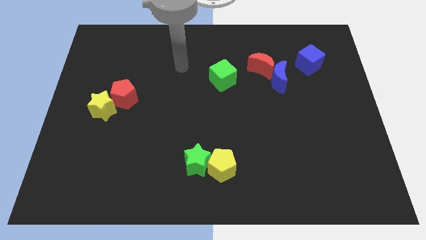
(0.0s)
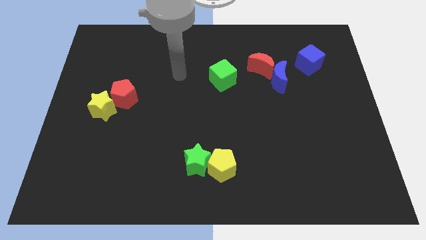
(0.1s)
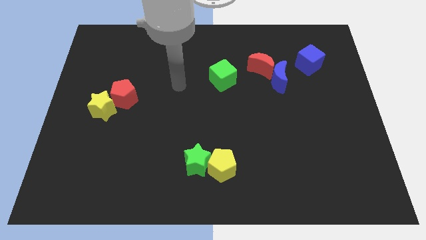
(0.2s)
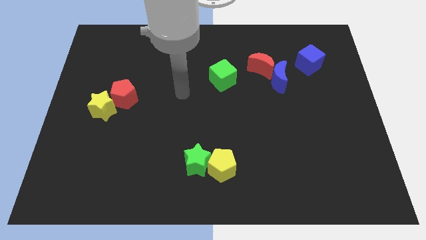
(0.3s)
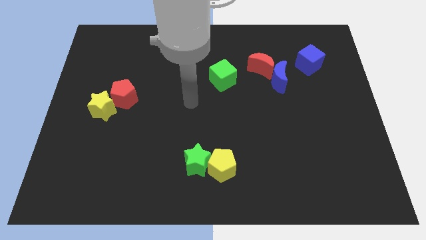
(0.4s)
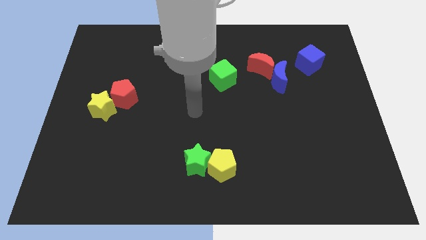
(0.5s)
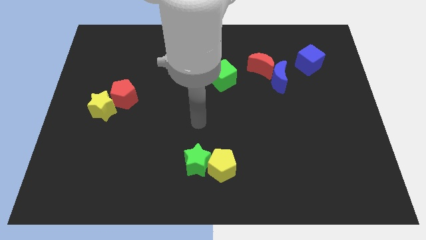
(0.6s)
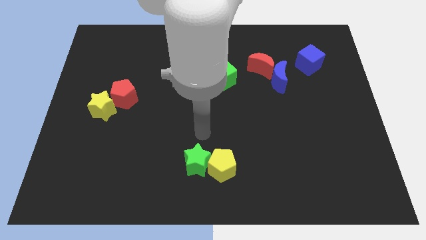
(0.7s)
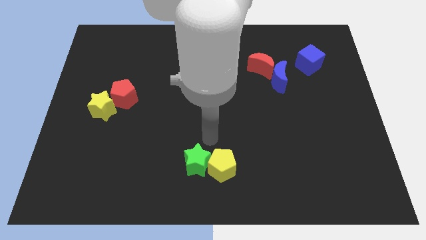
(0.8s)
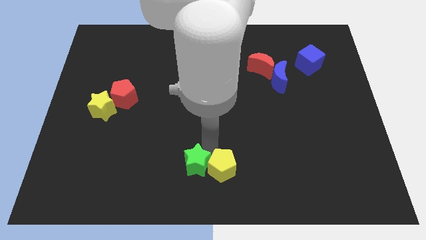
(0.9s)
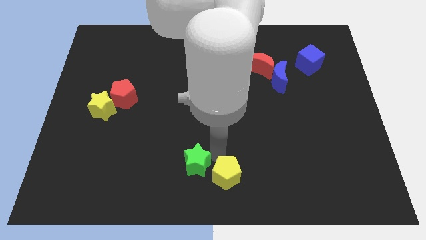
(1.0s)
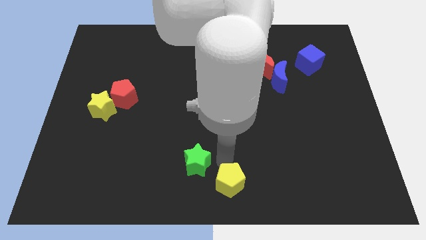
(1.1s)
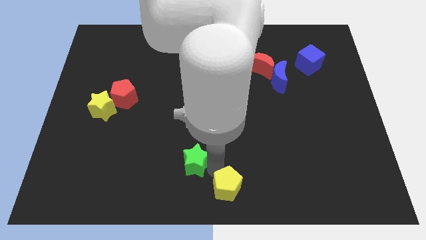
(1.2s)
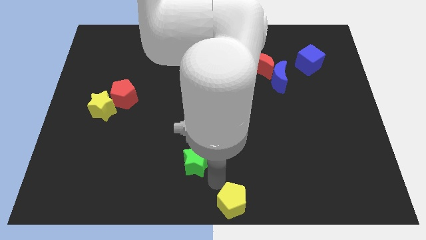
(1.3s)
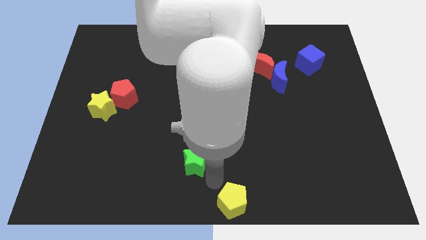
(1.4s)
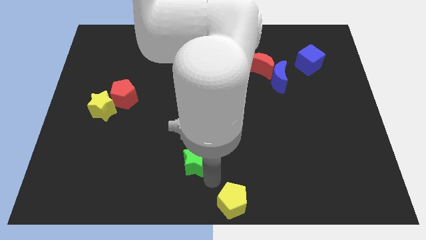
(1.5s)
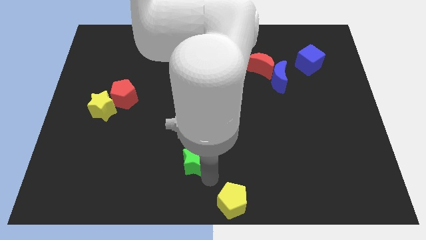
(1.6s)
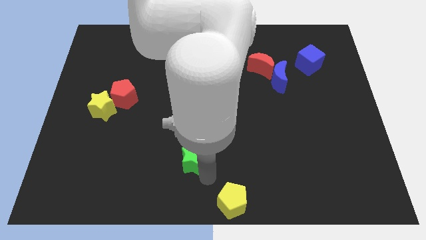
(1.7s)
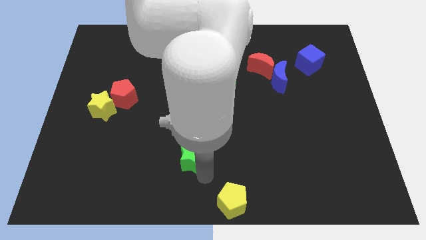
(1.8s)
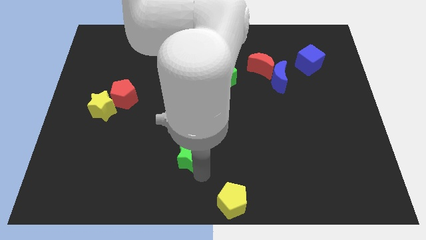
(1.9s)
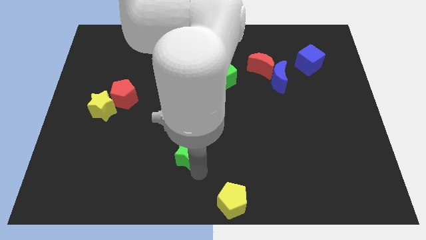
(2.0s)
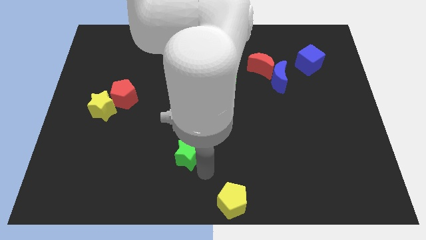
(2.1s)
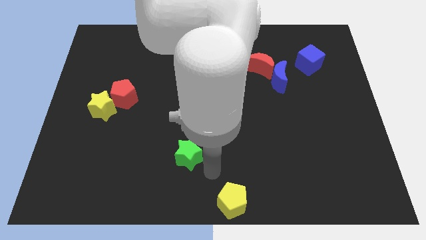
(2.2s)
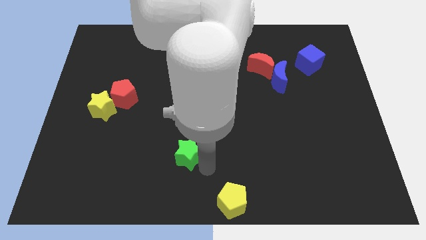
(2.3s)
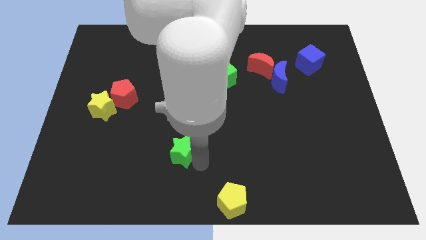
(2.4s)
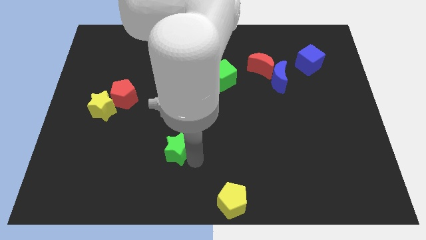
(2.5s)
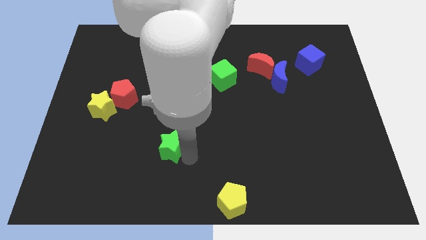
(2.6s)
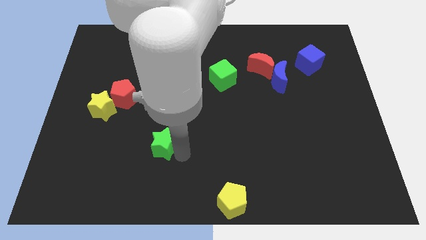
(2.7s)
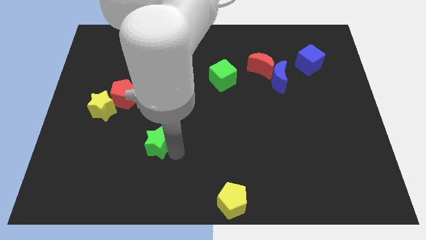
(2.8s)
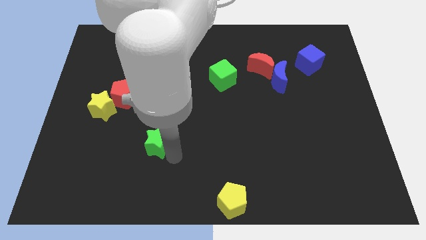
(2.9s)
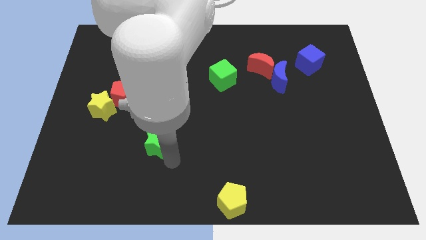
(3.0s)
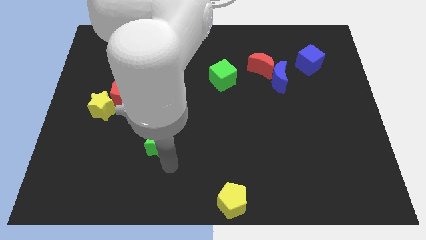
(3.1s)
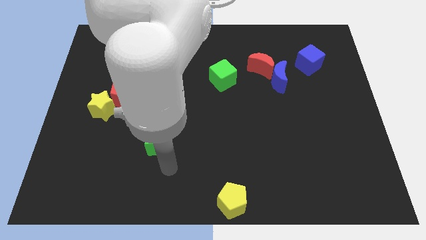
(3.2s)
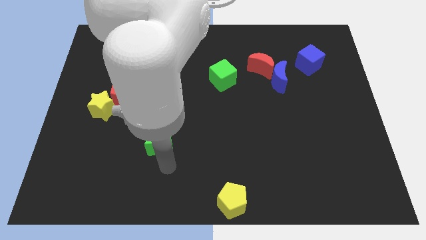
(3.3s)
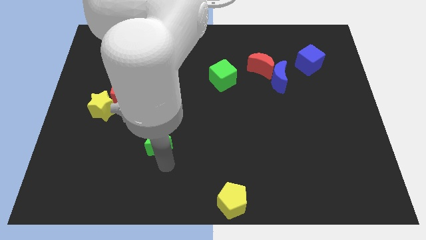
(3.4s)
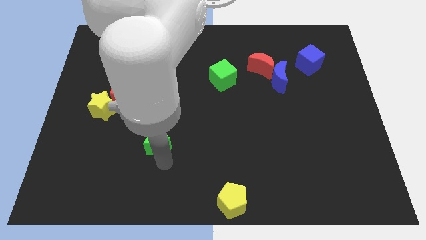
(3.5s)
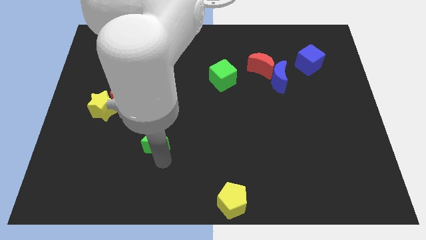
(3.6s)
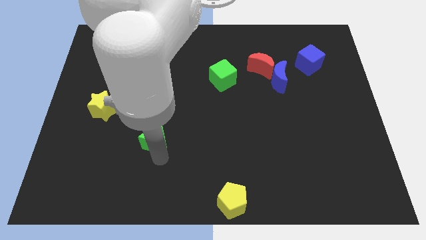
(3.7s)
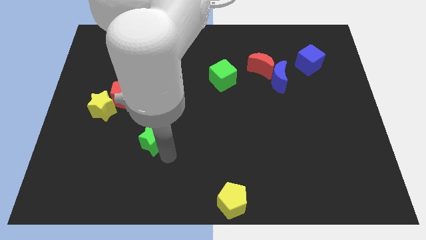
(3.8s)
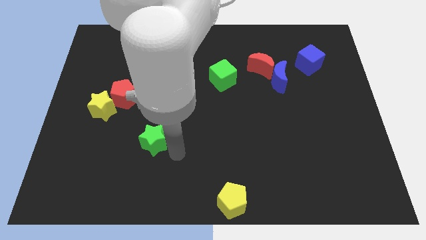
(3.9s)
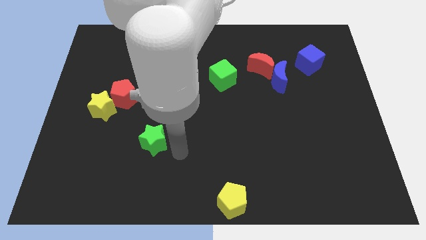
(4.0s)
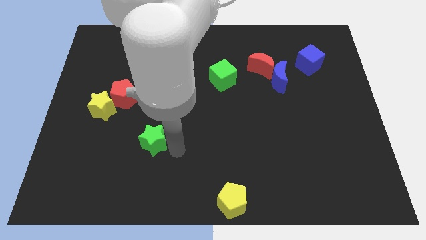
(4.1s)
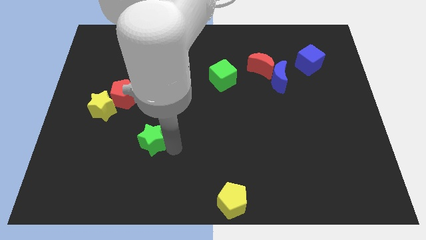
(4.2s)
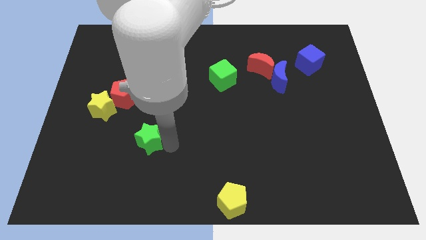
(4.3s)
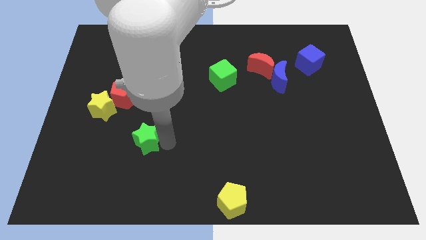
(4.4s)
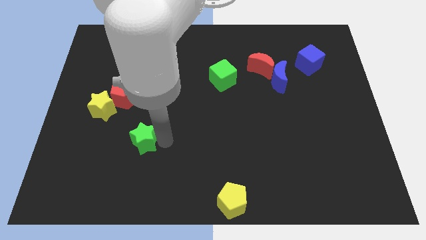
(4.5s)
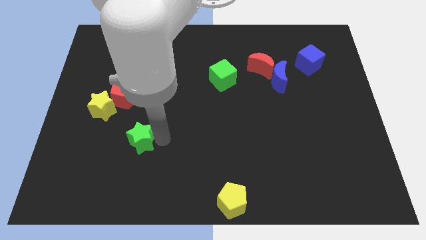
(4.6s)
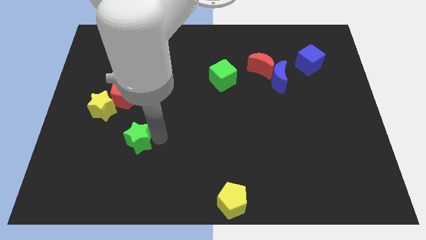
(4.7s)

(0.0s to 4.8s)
push the green star diagonally down and to the right of the yellow star

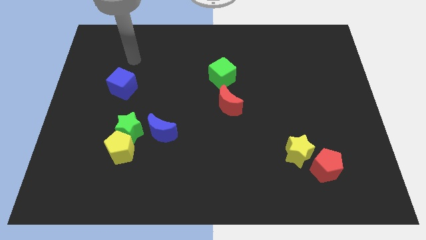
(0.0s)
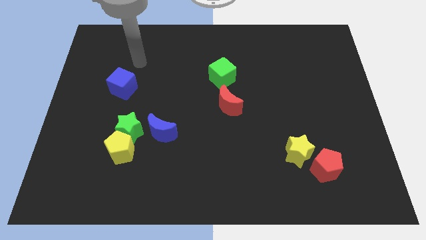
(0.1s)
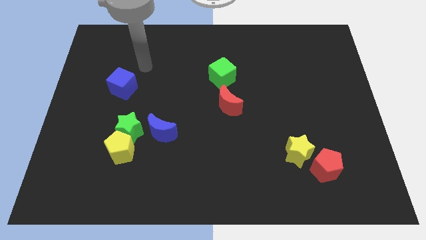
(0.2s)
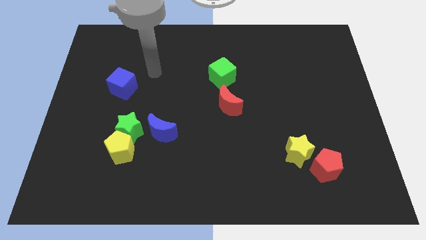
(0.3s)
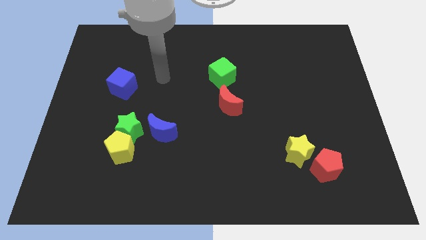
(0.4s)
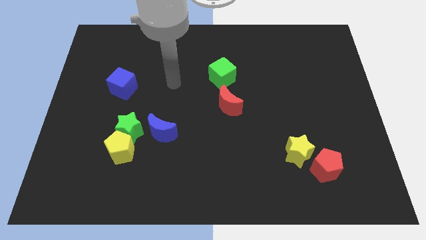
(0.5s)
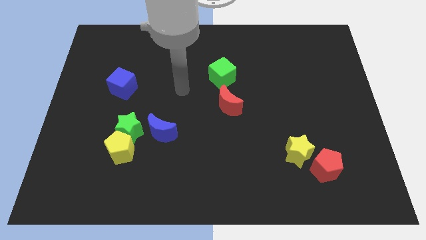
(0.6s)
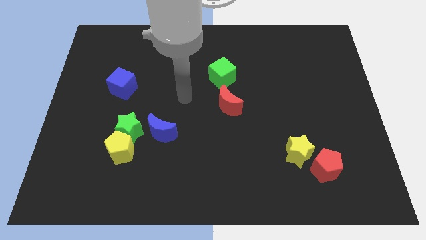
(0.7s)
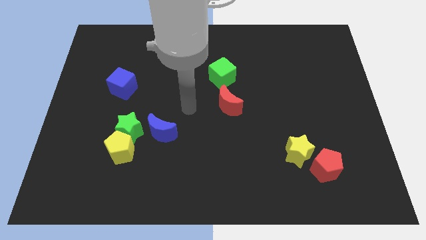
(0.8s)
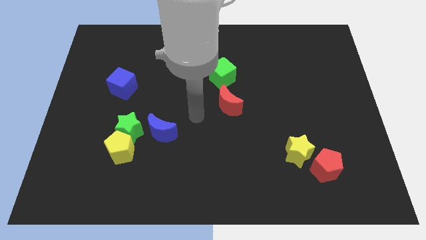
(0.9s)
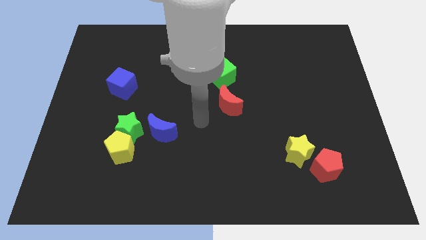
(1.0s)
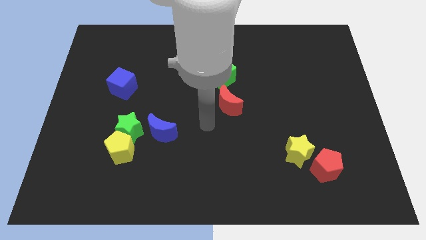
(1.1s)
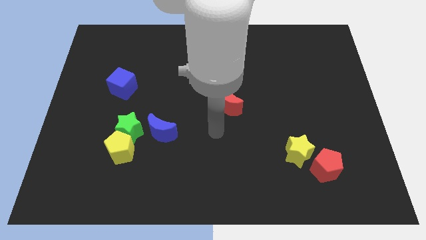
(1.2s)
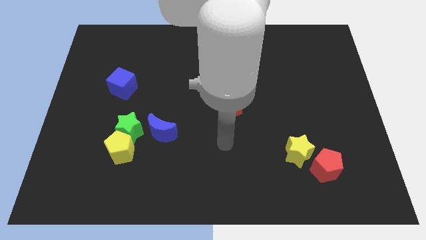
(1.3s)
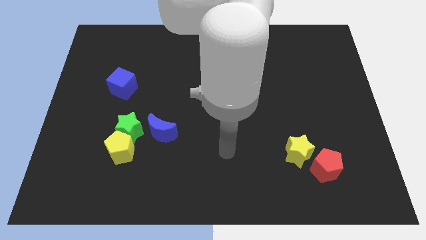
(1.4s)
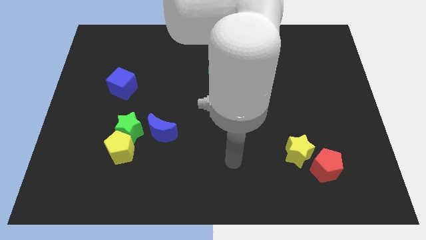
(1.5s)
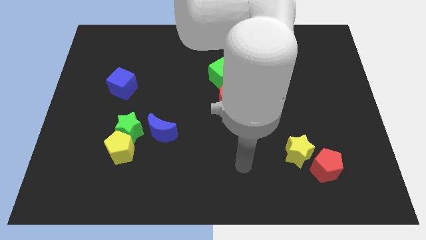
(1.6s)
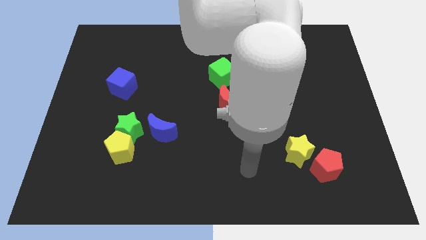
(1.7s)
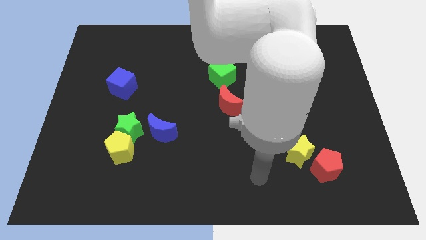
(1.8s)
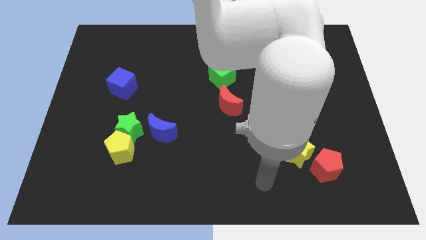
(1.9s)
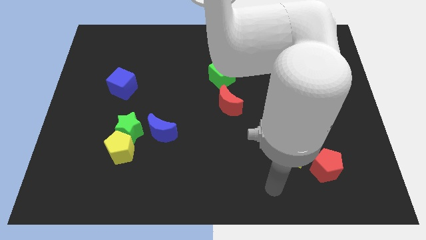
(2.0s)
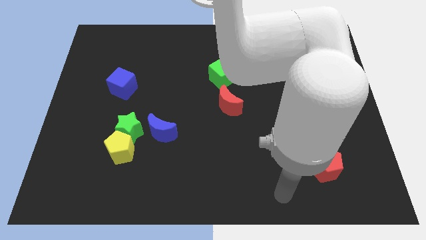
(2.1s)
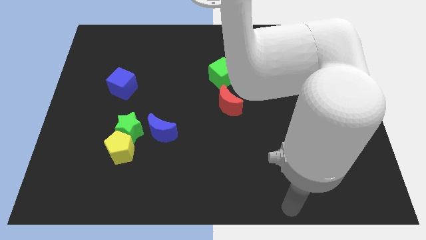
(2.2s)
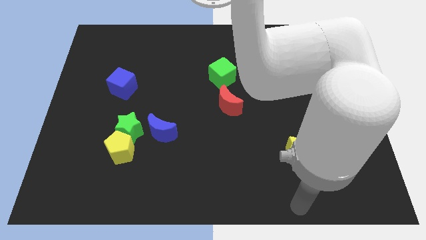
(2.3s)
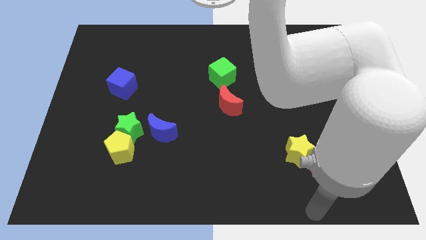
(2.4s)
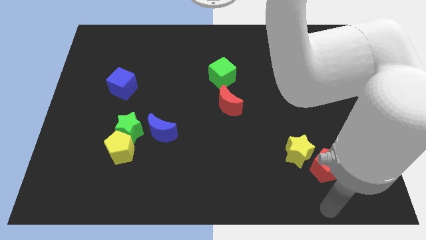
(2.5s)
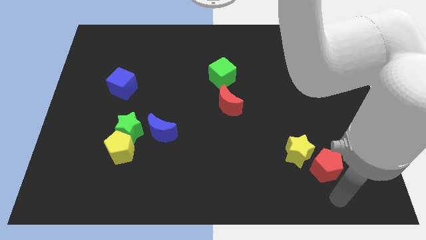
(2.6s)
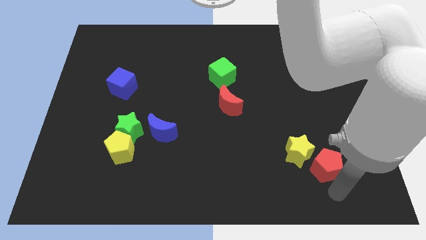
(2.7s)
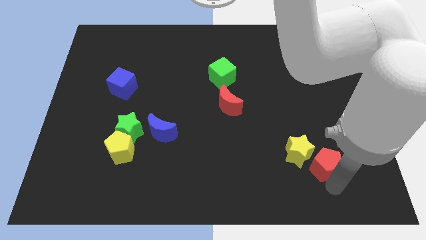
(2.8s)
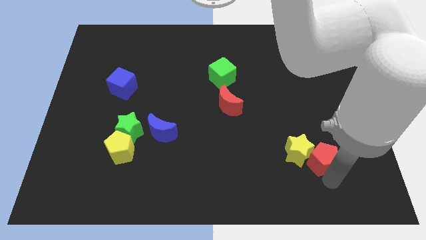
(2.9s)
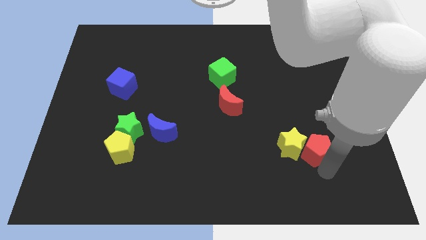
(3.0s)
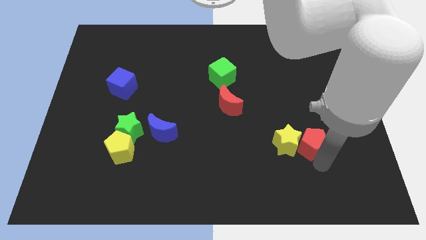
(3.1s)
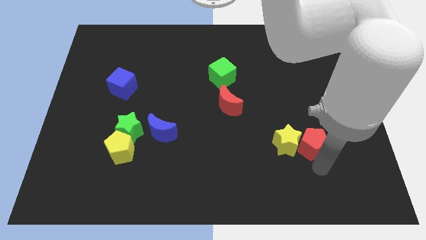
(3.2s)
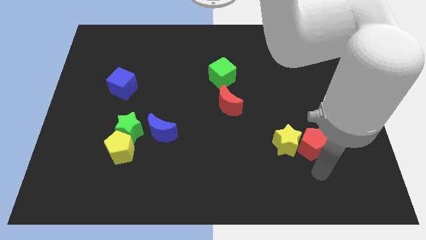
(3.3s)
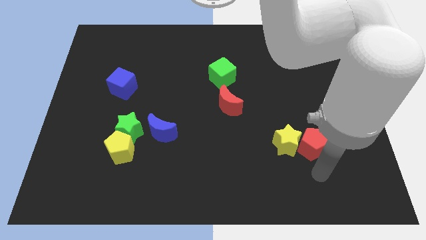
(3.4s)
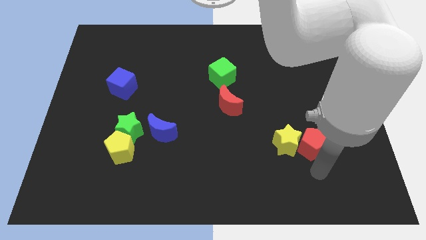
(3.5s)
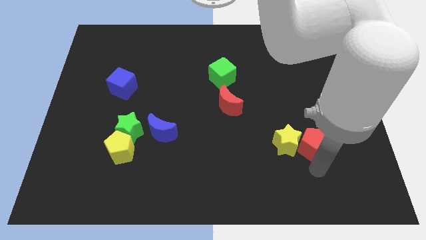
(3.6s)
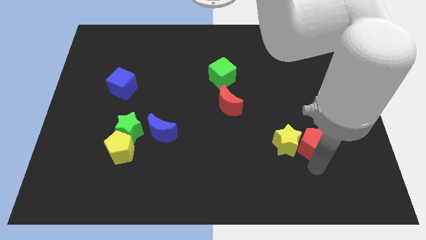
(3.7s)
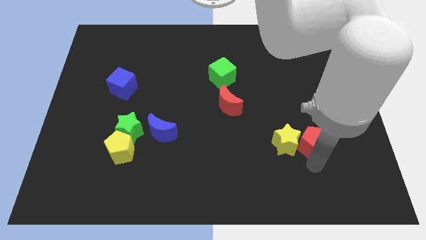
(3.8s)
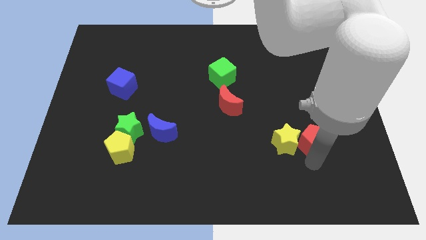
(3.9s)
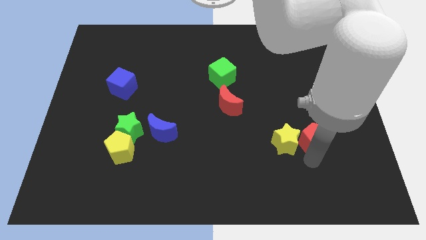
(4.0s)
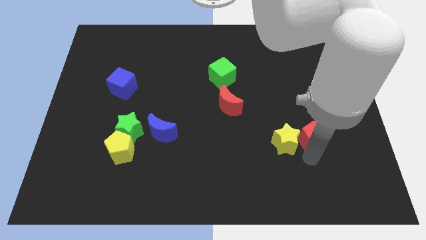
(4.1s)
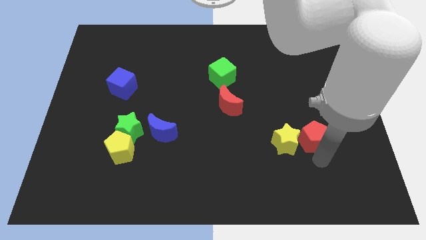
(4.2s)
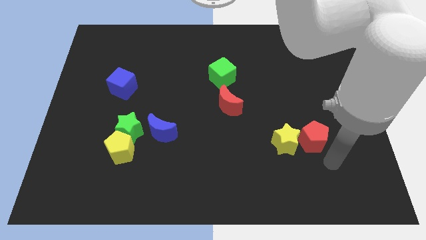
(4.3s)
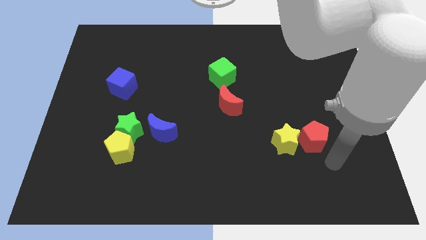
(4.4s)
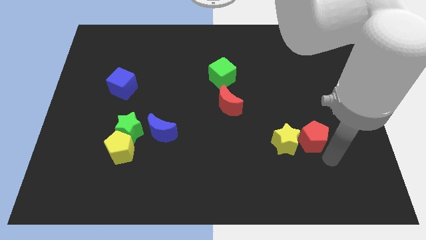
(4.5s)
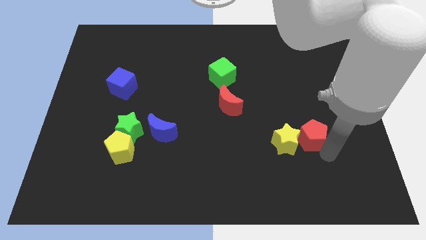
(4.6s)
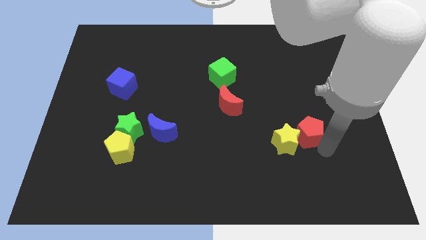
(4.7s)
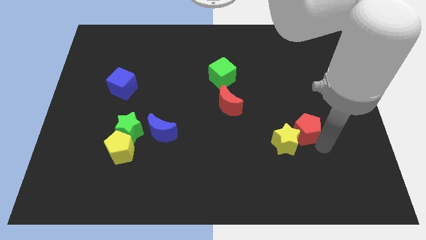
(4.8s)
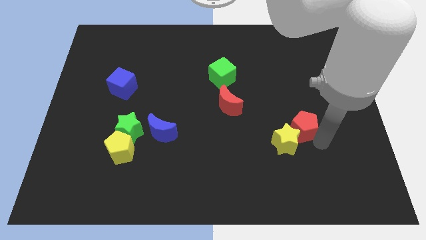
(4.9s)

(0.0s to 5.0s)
slide the red pentagon above the yellow star
